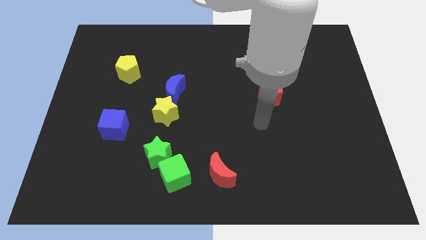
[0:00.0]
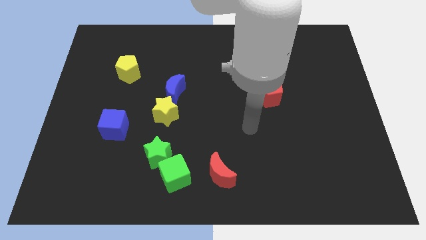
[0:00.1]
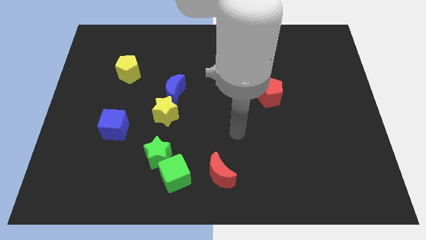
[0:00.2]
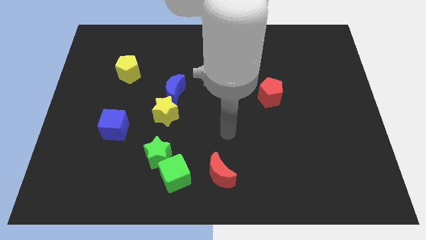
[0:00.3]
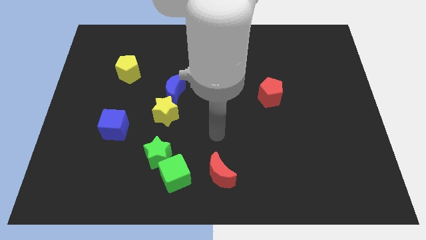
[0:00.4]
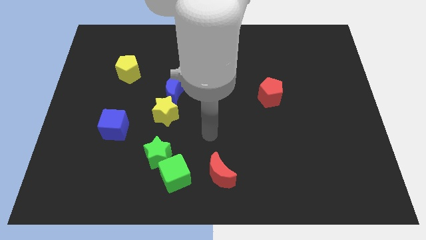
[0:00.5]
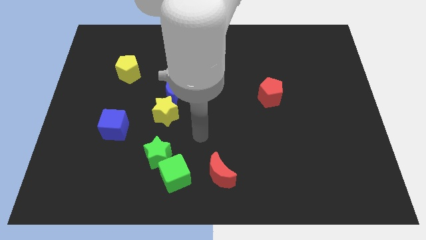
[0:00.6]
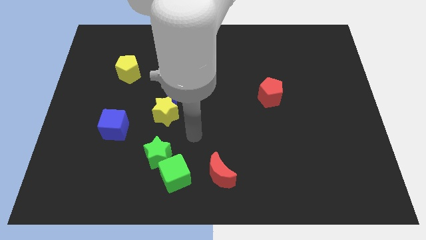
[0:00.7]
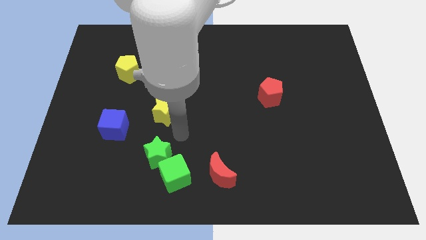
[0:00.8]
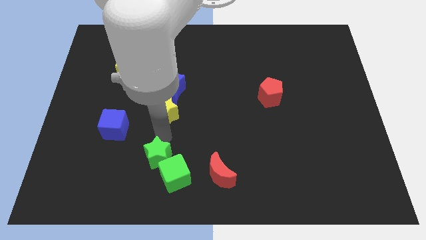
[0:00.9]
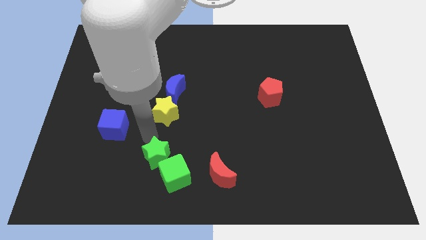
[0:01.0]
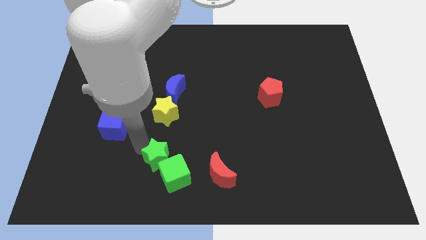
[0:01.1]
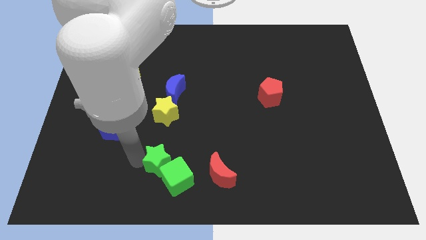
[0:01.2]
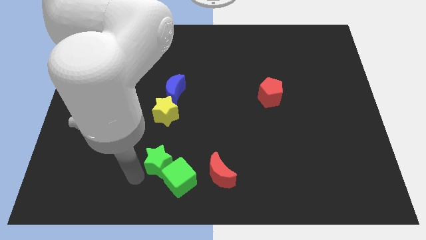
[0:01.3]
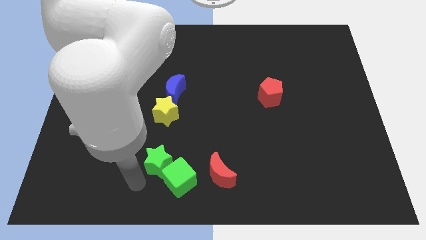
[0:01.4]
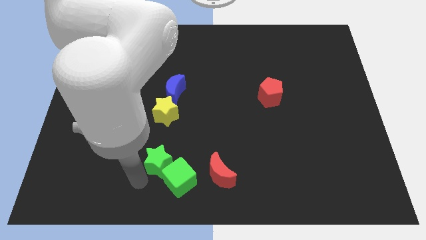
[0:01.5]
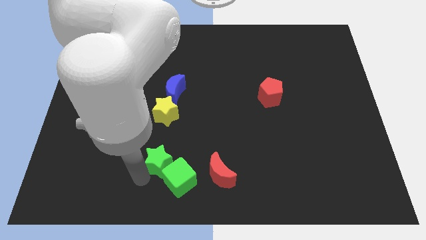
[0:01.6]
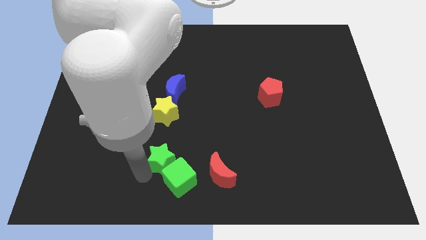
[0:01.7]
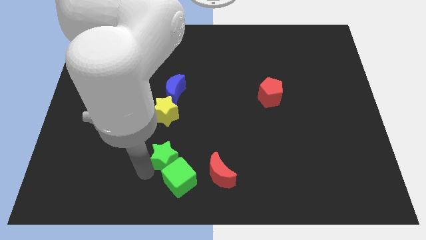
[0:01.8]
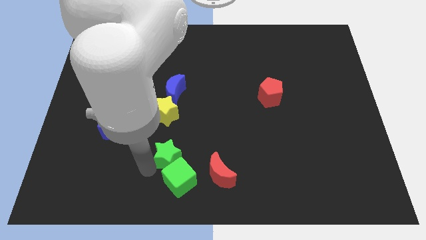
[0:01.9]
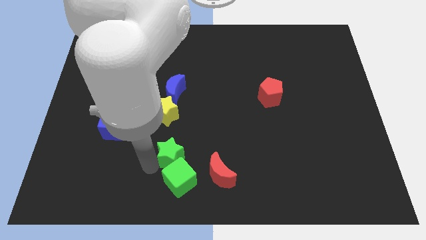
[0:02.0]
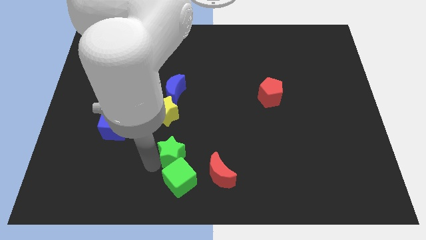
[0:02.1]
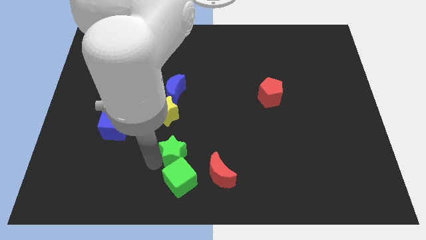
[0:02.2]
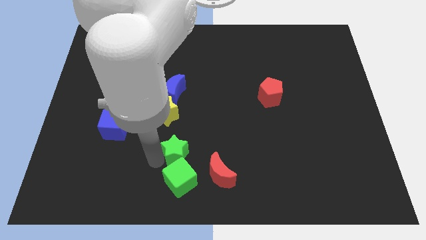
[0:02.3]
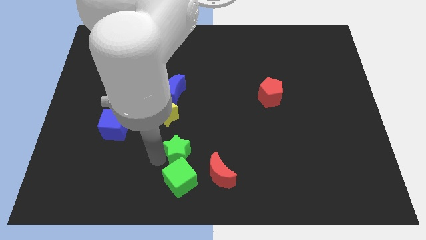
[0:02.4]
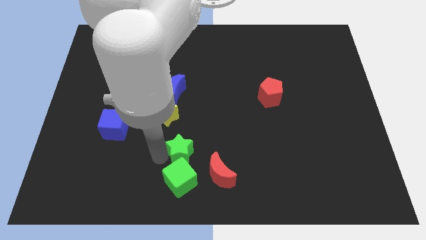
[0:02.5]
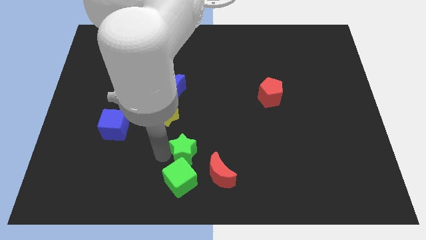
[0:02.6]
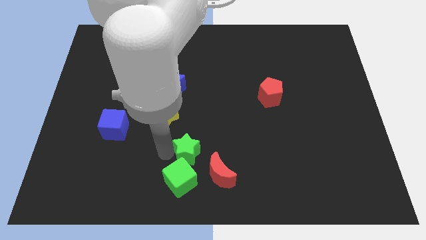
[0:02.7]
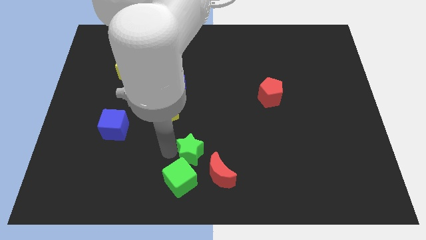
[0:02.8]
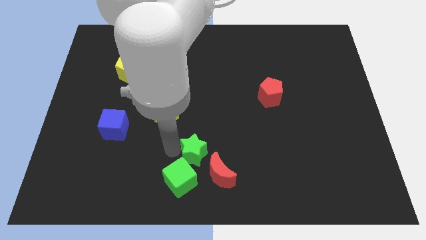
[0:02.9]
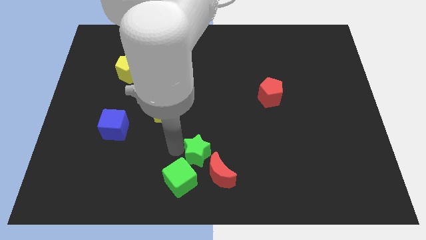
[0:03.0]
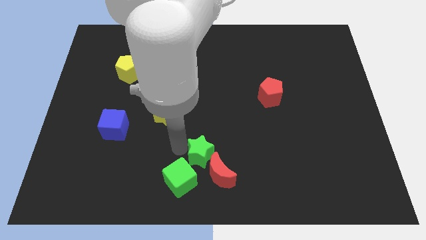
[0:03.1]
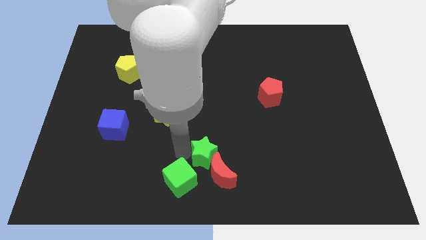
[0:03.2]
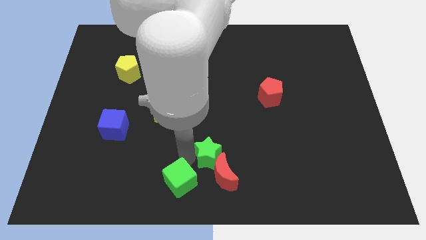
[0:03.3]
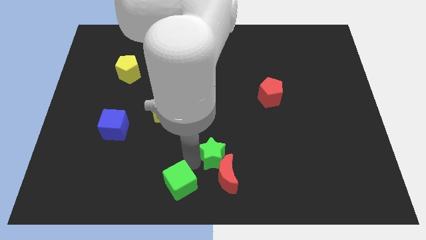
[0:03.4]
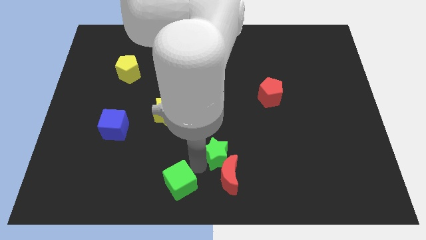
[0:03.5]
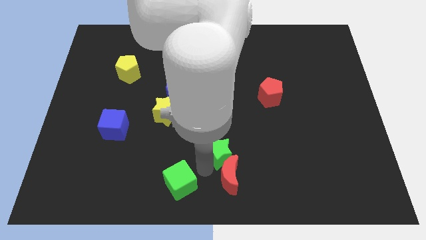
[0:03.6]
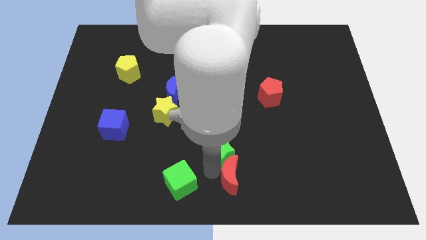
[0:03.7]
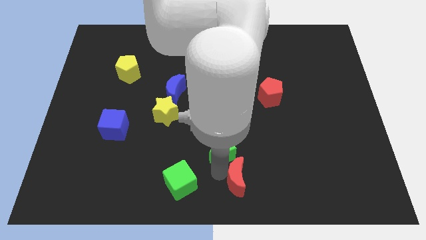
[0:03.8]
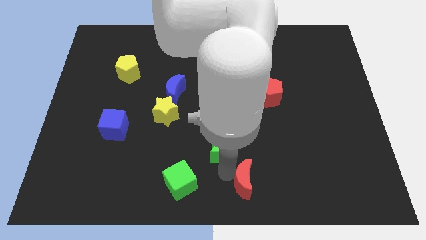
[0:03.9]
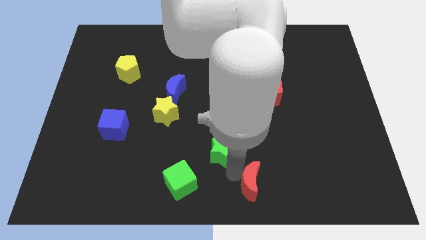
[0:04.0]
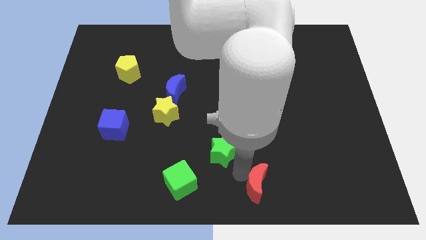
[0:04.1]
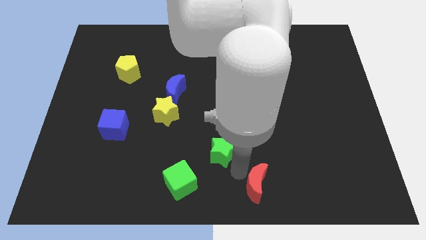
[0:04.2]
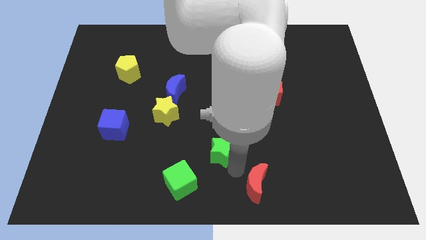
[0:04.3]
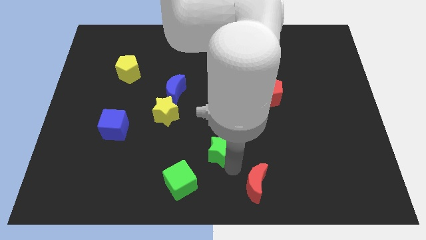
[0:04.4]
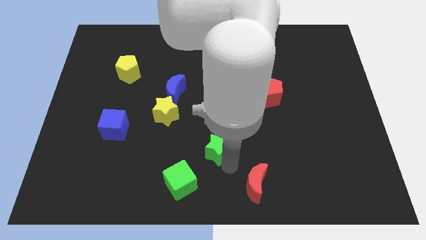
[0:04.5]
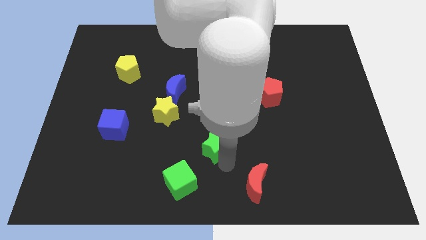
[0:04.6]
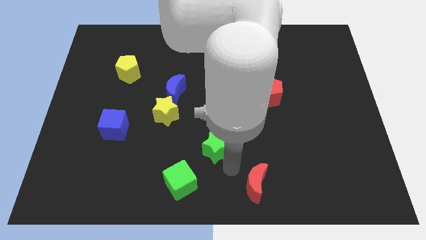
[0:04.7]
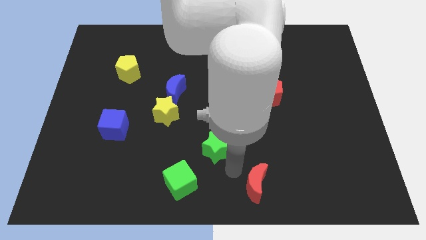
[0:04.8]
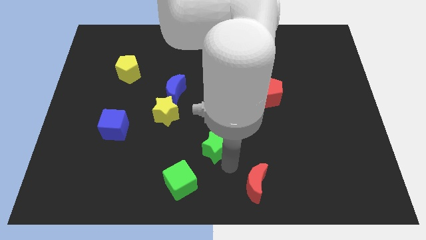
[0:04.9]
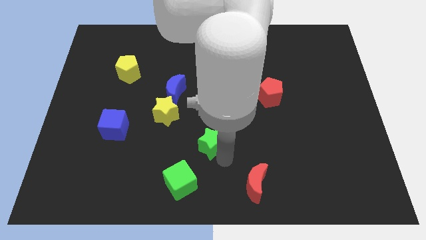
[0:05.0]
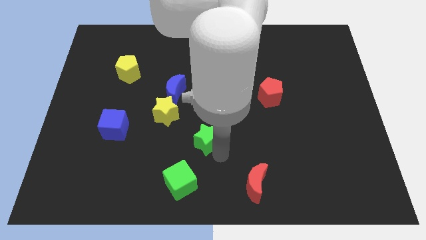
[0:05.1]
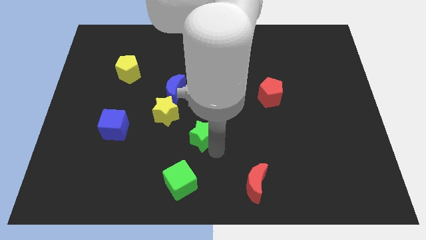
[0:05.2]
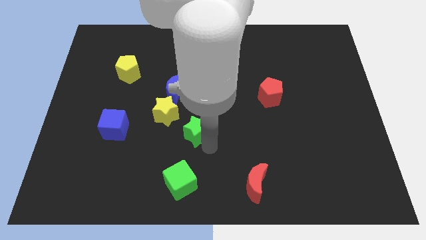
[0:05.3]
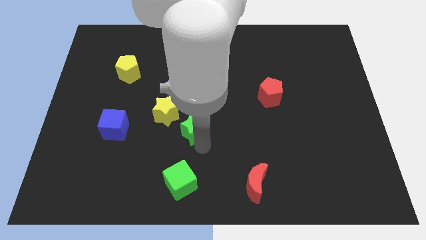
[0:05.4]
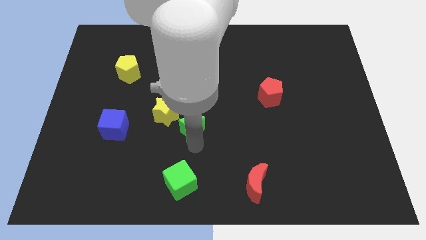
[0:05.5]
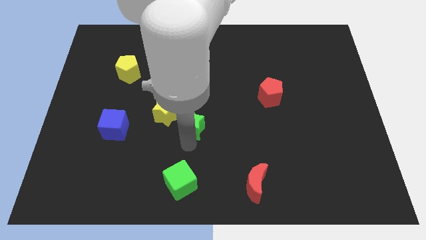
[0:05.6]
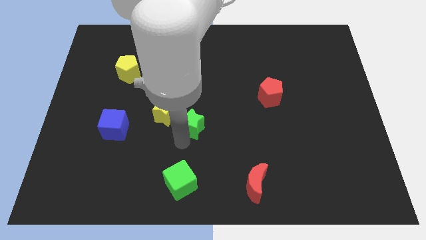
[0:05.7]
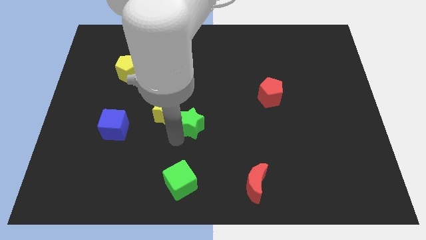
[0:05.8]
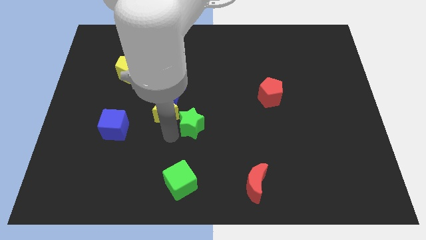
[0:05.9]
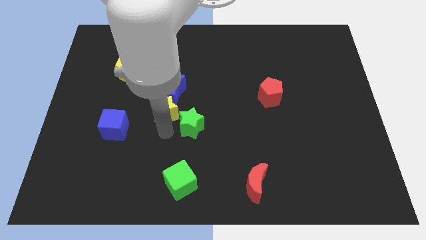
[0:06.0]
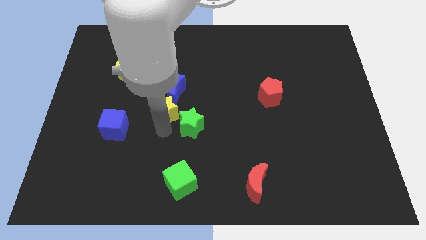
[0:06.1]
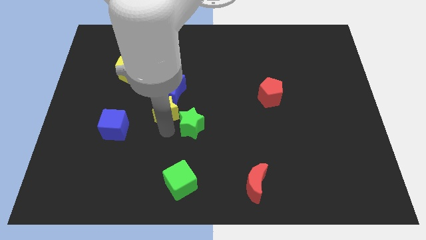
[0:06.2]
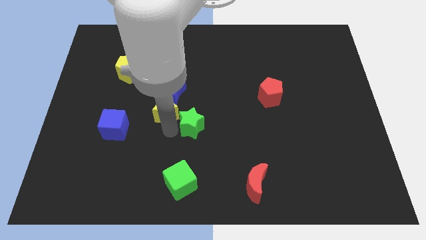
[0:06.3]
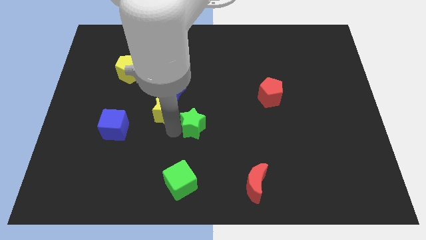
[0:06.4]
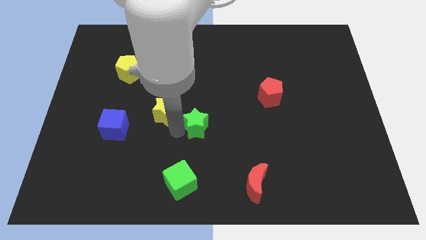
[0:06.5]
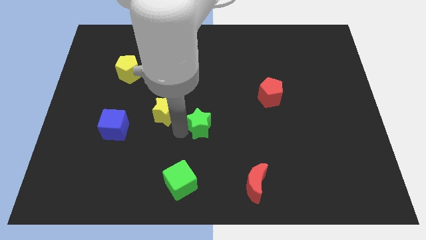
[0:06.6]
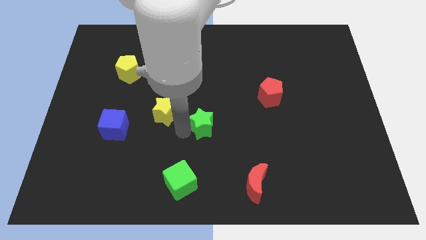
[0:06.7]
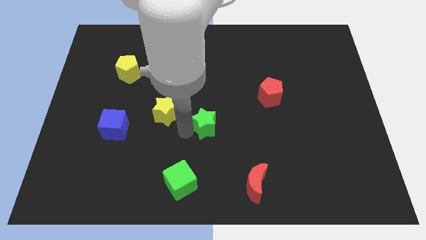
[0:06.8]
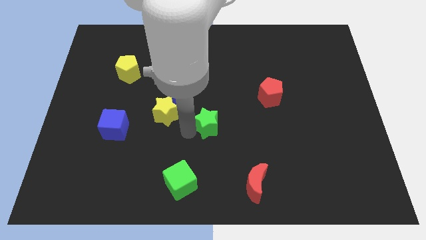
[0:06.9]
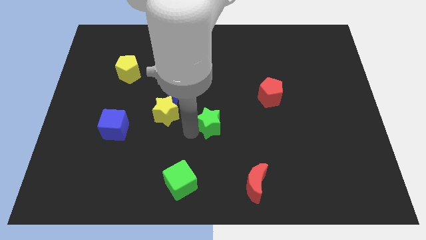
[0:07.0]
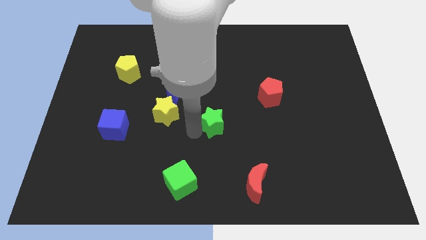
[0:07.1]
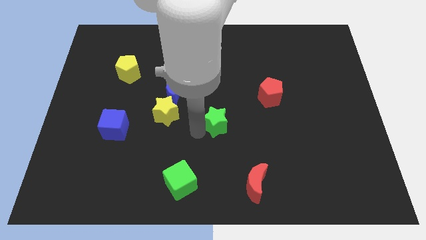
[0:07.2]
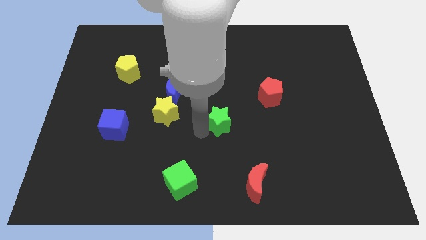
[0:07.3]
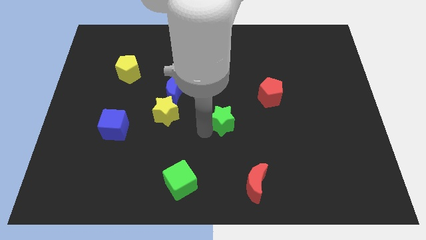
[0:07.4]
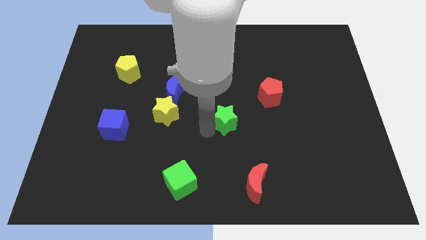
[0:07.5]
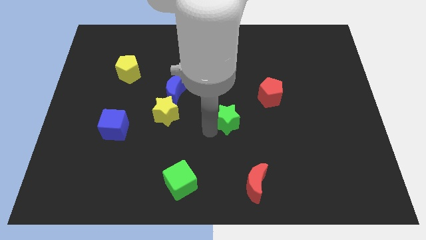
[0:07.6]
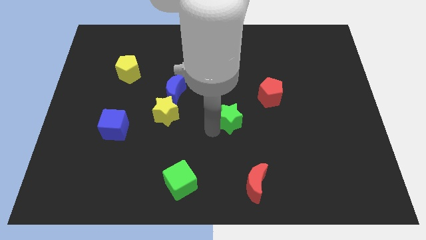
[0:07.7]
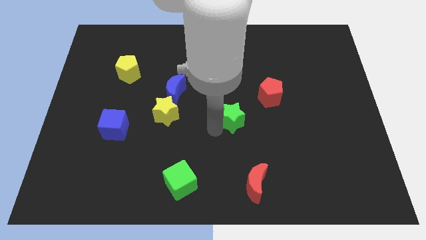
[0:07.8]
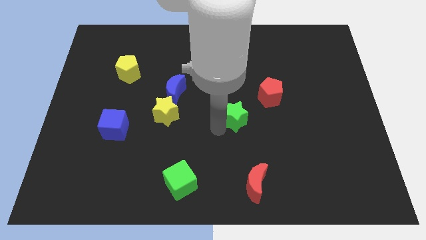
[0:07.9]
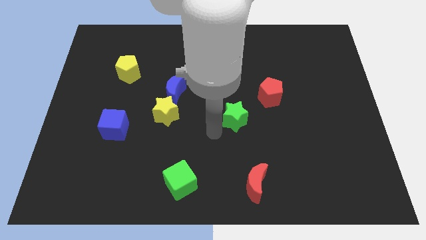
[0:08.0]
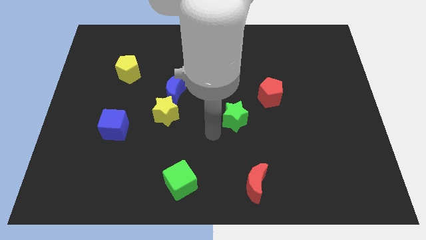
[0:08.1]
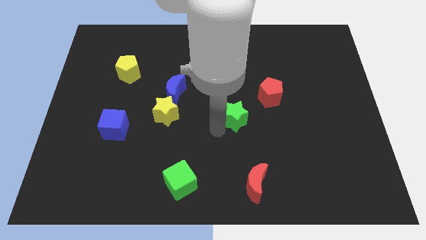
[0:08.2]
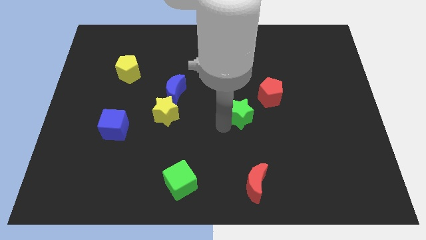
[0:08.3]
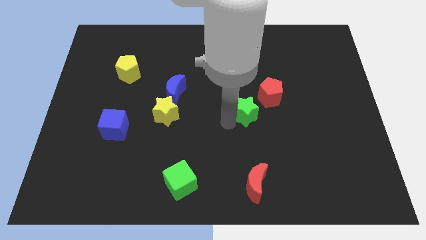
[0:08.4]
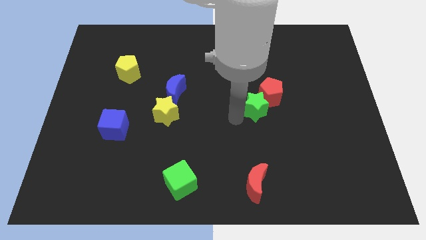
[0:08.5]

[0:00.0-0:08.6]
push the green star close to the red pentagon
